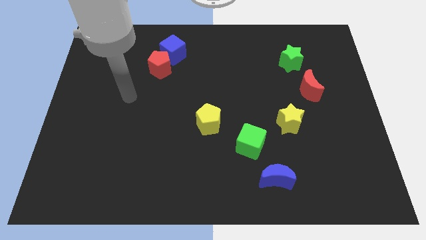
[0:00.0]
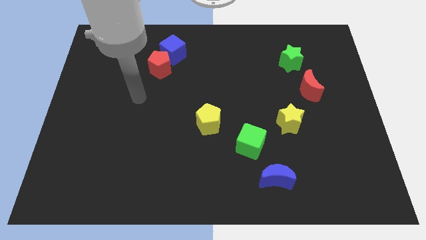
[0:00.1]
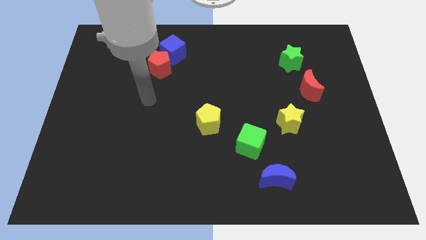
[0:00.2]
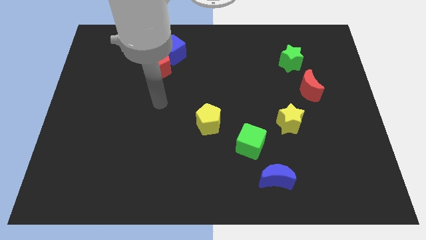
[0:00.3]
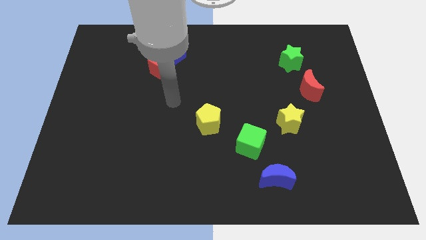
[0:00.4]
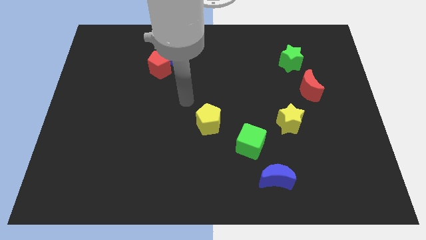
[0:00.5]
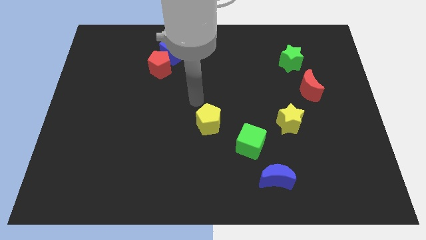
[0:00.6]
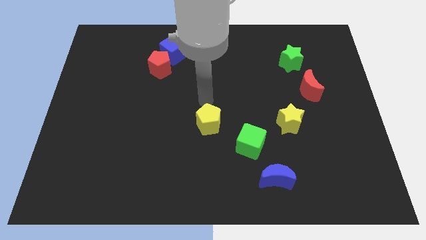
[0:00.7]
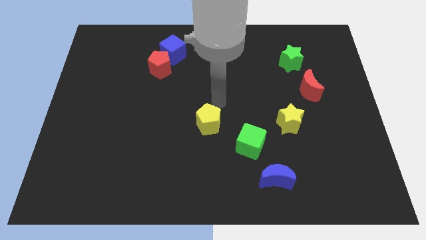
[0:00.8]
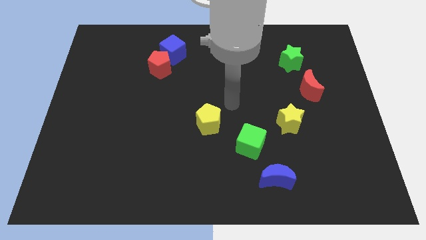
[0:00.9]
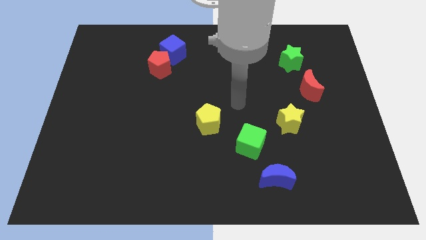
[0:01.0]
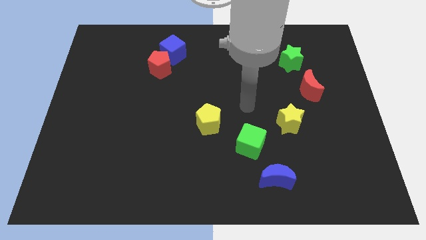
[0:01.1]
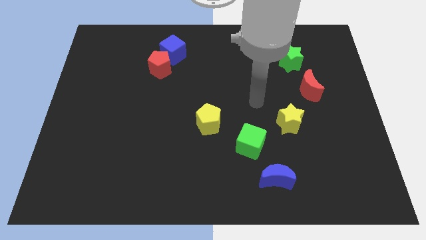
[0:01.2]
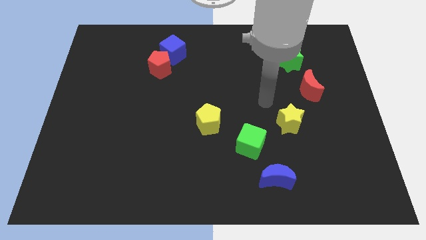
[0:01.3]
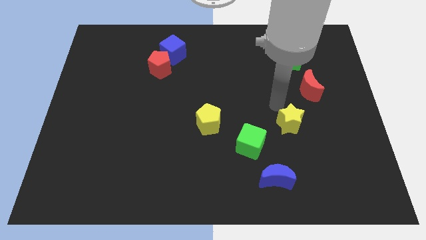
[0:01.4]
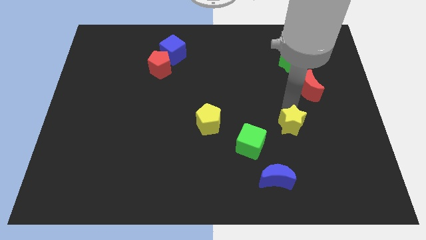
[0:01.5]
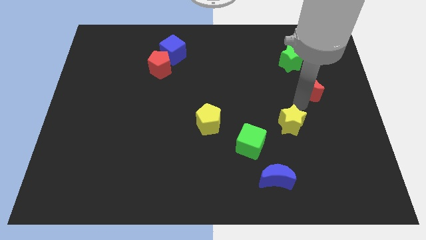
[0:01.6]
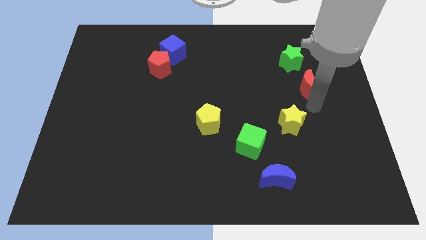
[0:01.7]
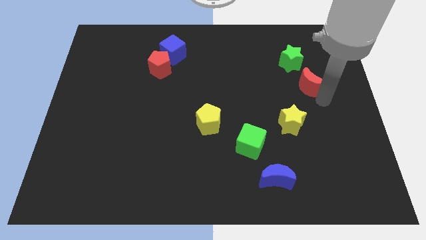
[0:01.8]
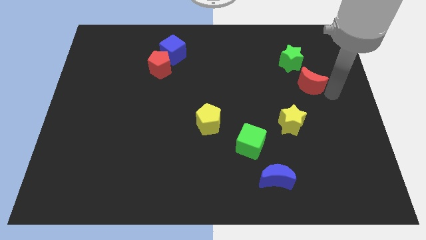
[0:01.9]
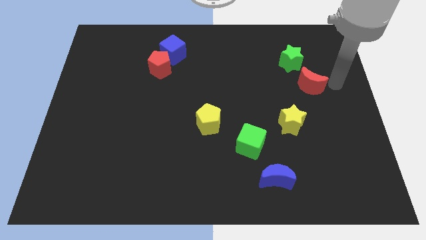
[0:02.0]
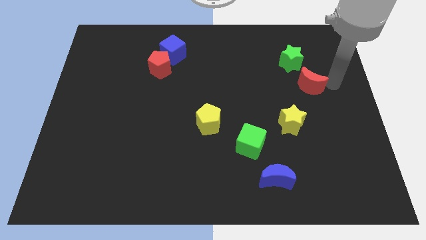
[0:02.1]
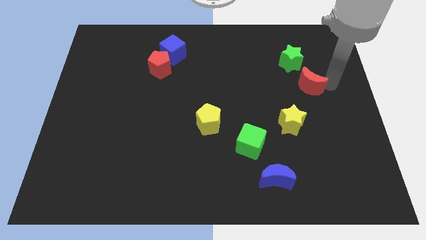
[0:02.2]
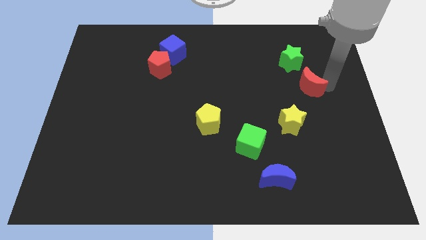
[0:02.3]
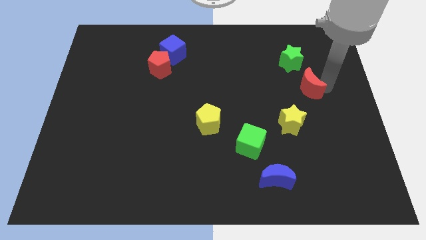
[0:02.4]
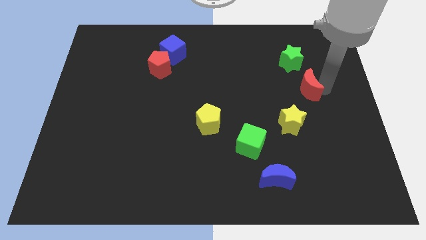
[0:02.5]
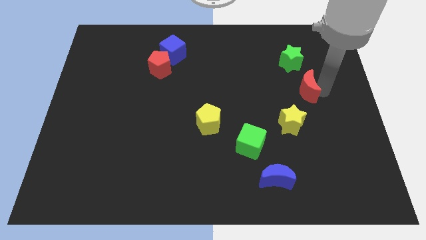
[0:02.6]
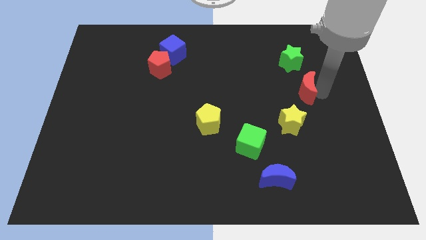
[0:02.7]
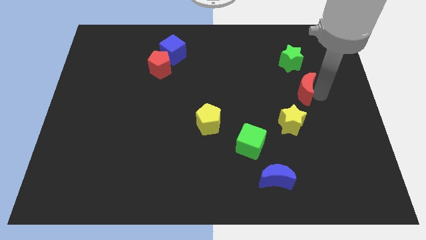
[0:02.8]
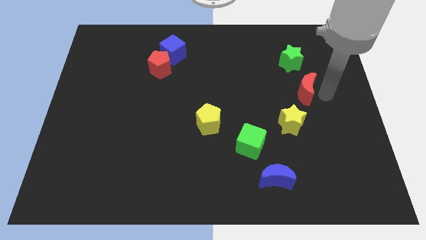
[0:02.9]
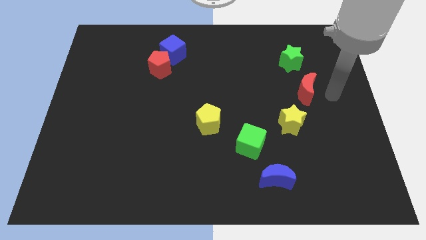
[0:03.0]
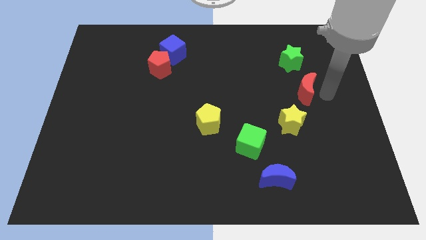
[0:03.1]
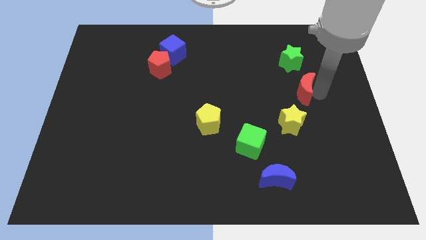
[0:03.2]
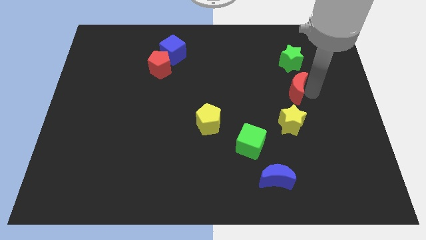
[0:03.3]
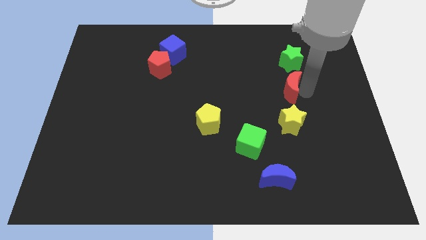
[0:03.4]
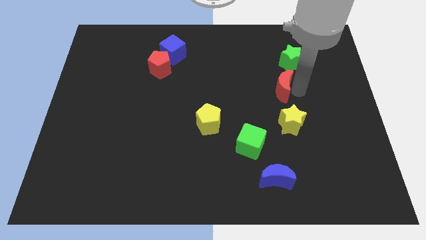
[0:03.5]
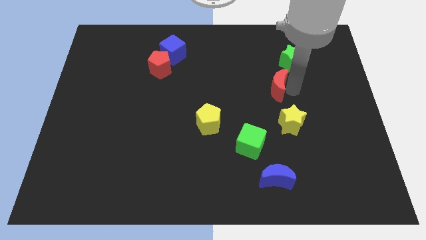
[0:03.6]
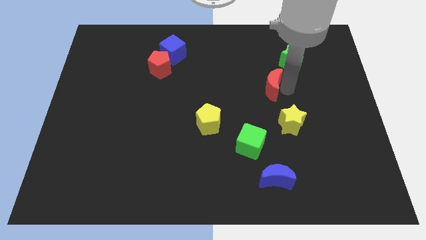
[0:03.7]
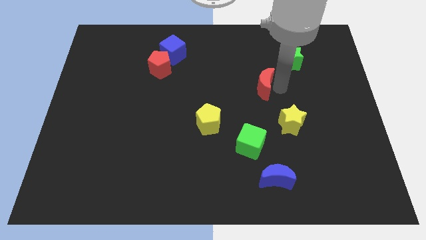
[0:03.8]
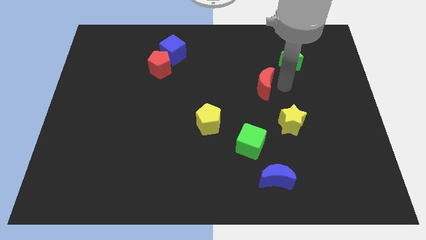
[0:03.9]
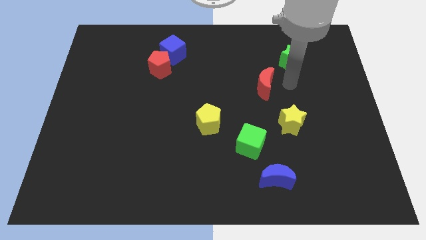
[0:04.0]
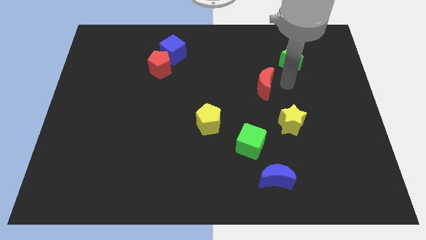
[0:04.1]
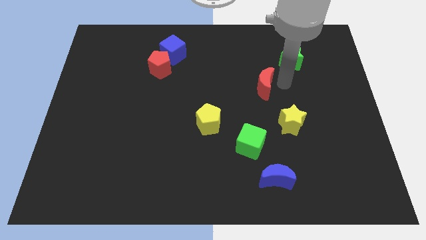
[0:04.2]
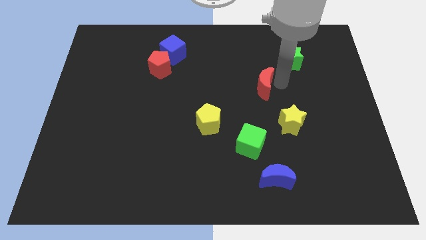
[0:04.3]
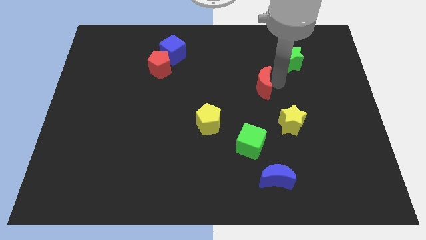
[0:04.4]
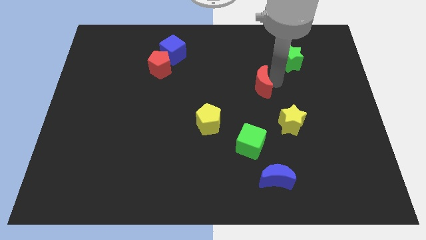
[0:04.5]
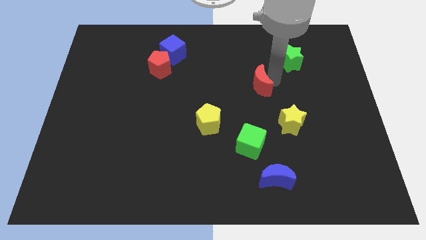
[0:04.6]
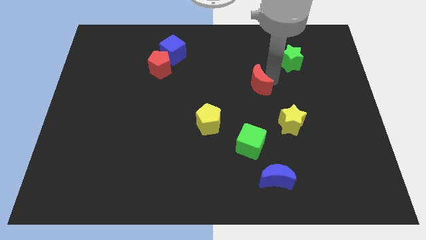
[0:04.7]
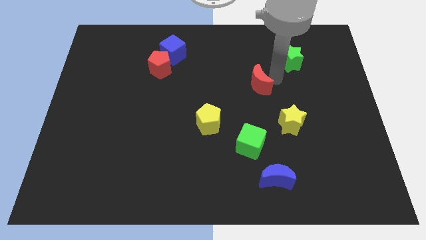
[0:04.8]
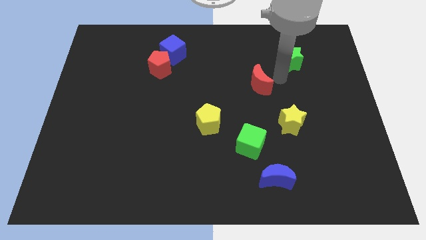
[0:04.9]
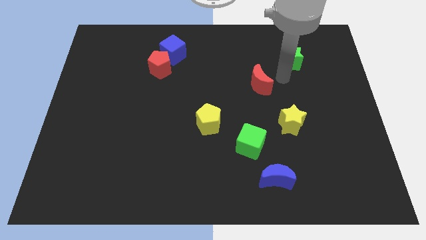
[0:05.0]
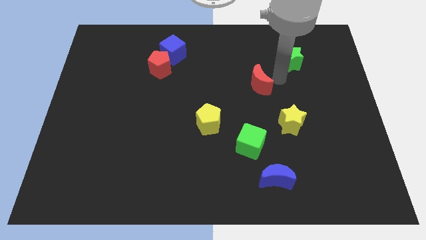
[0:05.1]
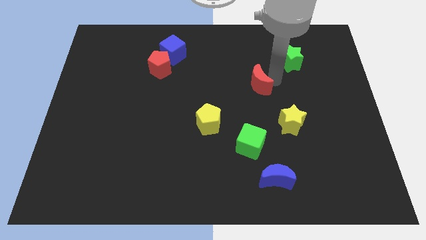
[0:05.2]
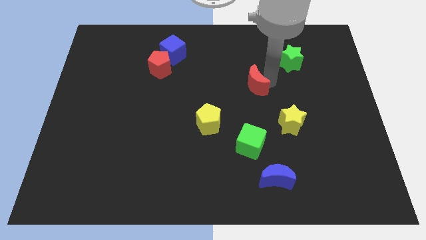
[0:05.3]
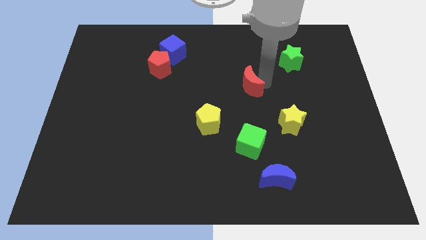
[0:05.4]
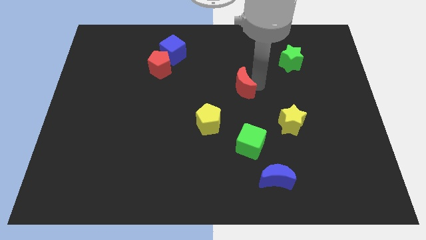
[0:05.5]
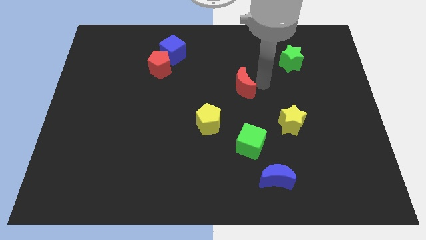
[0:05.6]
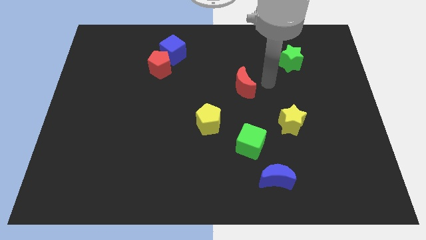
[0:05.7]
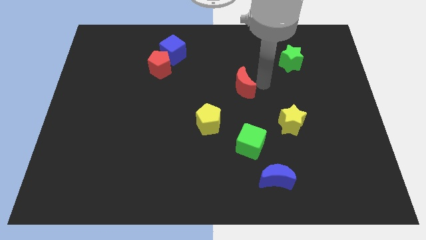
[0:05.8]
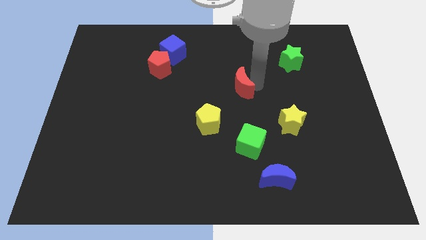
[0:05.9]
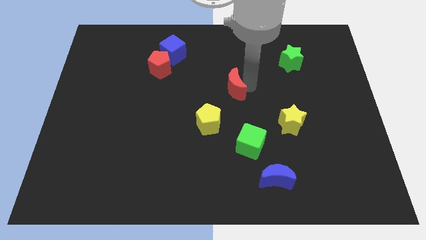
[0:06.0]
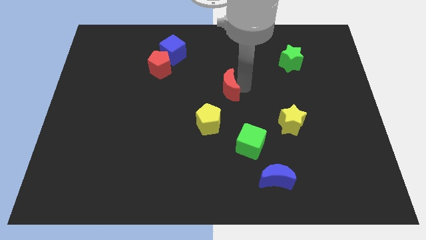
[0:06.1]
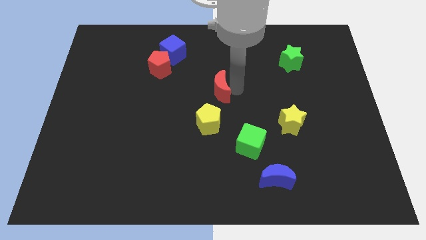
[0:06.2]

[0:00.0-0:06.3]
move the red moon to the left

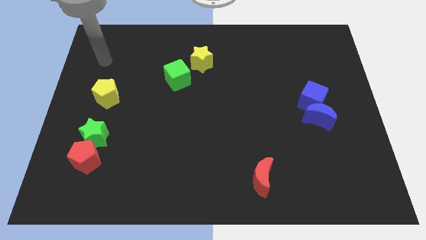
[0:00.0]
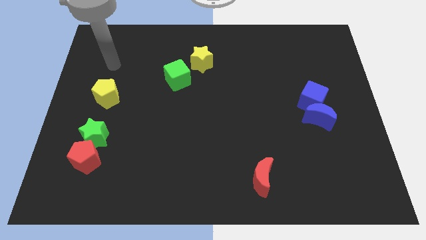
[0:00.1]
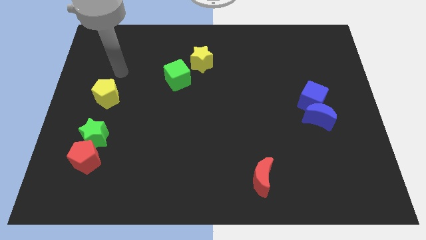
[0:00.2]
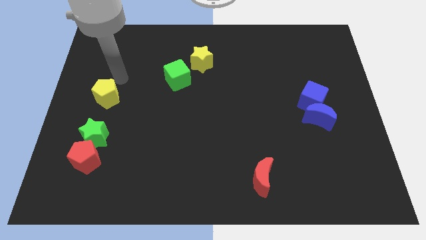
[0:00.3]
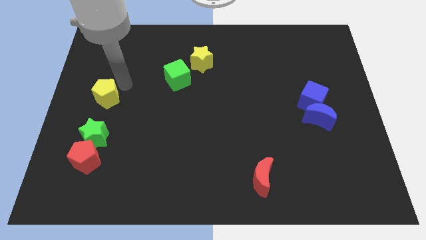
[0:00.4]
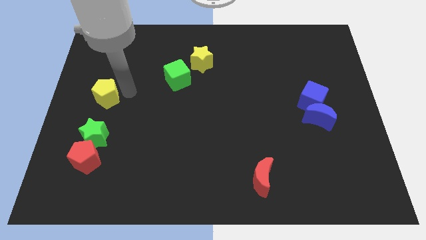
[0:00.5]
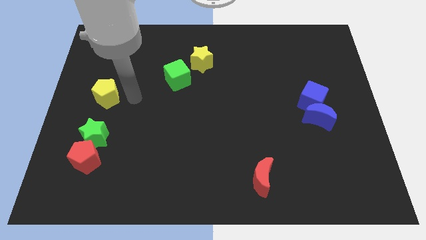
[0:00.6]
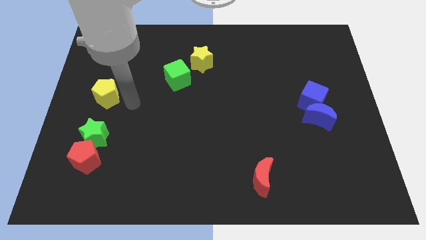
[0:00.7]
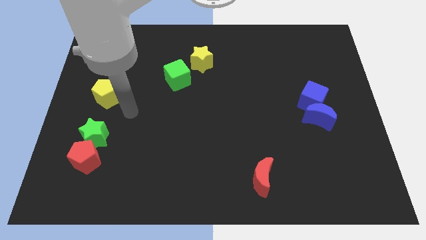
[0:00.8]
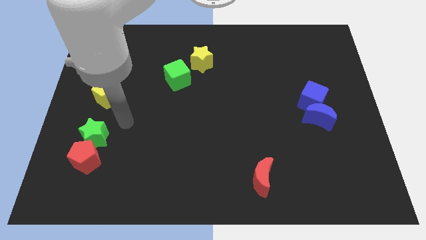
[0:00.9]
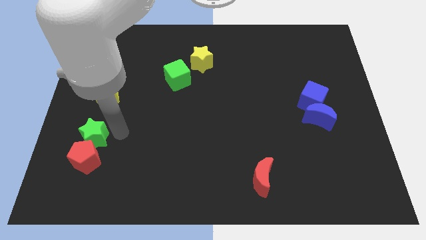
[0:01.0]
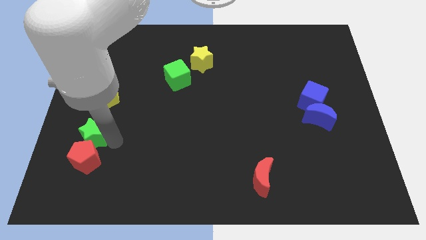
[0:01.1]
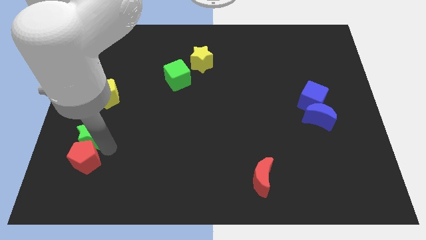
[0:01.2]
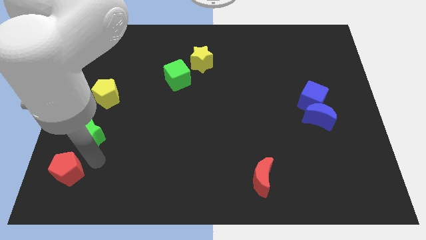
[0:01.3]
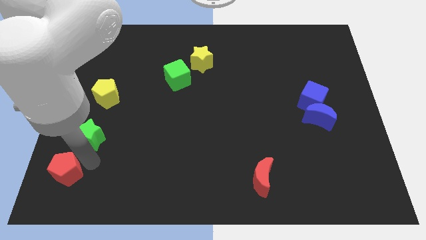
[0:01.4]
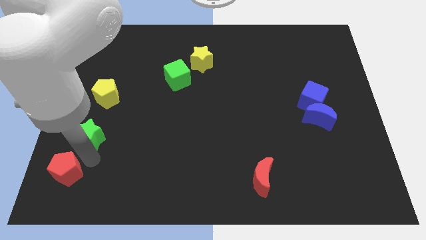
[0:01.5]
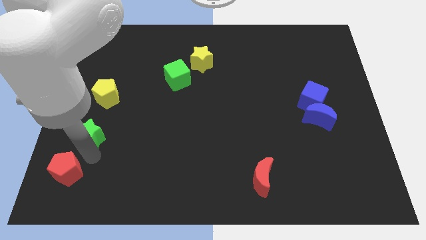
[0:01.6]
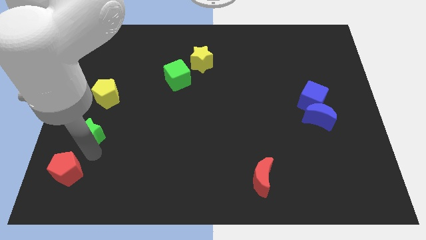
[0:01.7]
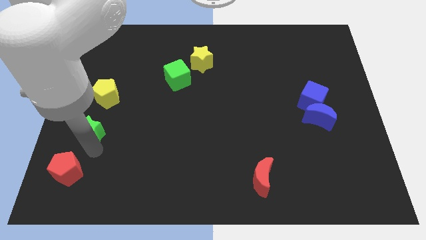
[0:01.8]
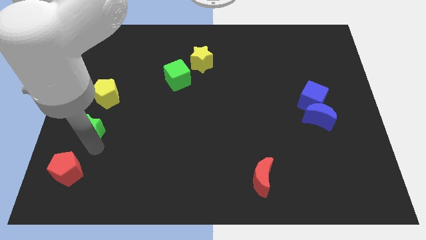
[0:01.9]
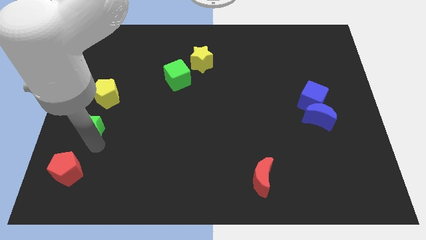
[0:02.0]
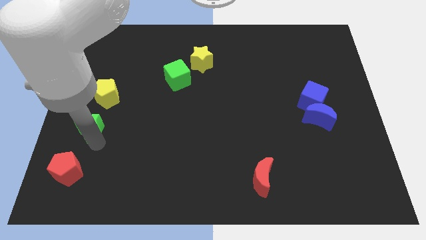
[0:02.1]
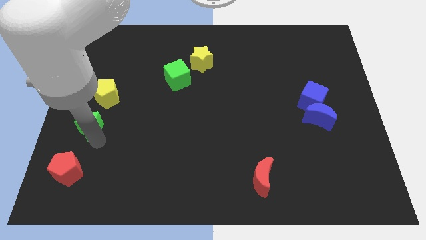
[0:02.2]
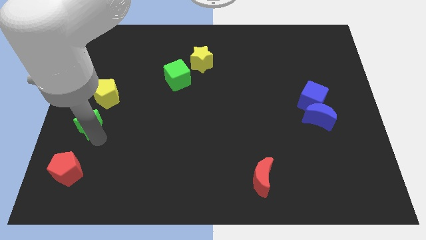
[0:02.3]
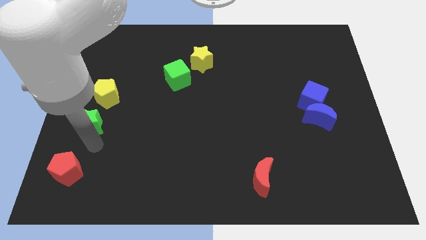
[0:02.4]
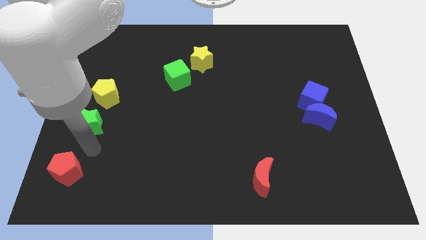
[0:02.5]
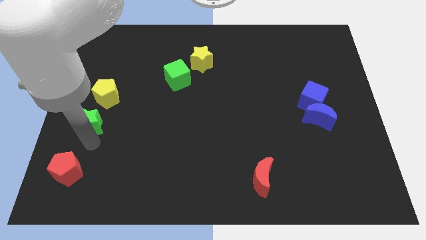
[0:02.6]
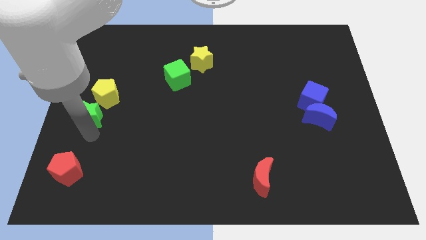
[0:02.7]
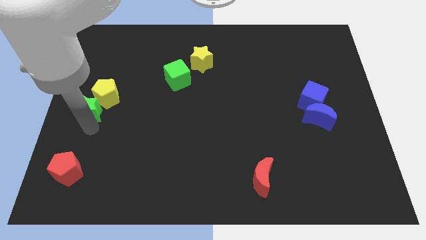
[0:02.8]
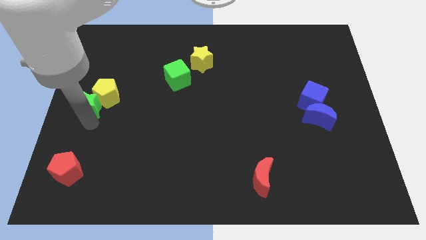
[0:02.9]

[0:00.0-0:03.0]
push the green star upwards slightly
